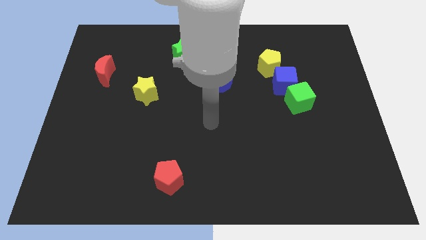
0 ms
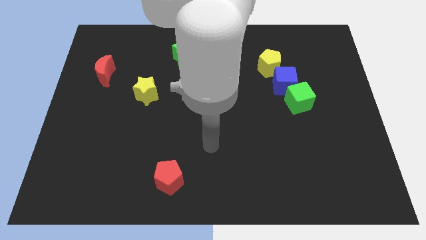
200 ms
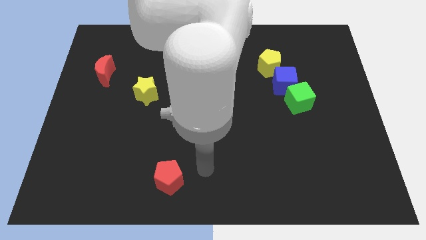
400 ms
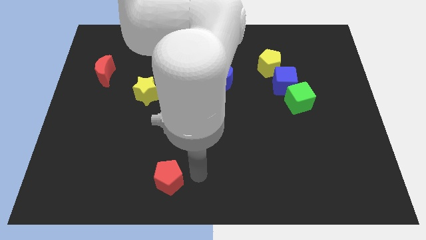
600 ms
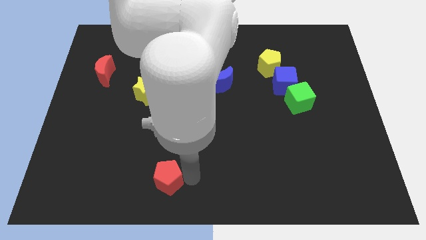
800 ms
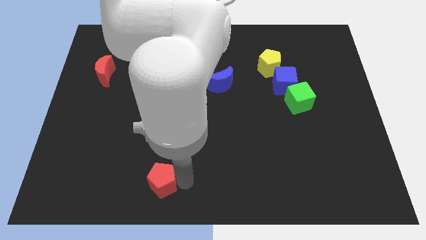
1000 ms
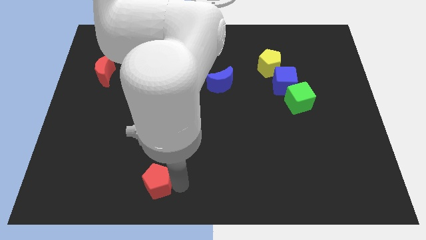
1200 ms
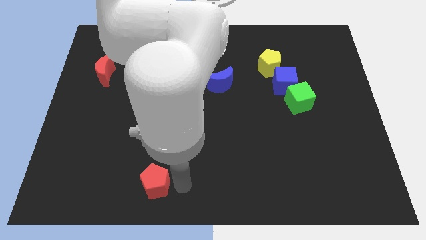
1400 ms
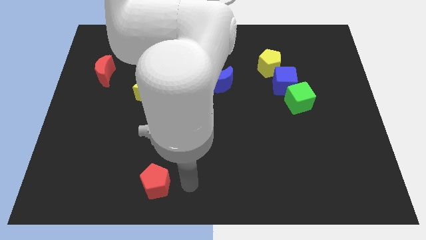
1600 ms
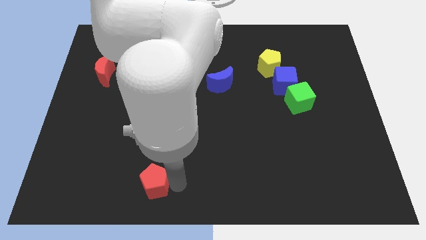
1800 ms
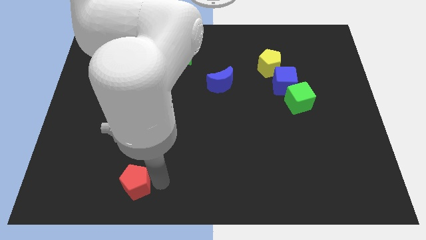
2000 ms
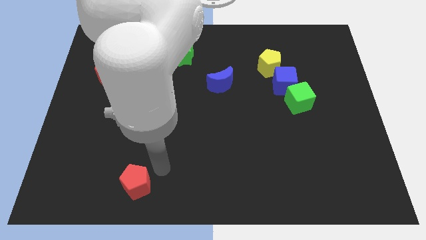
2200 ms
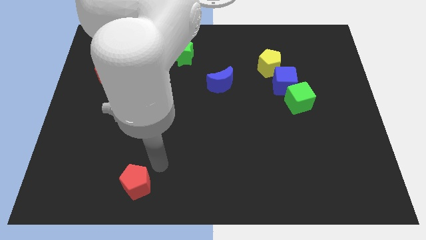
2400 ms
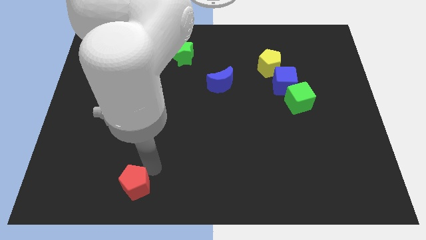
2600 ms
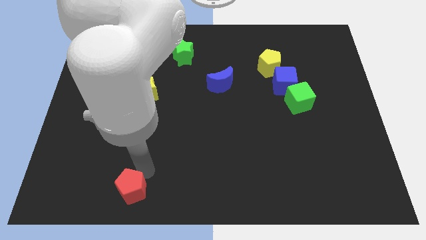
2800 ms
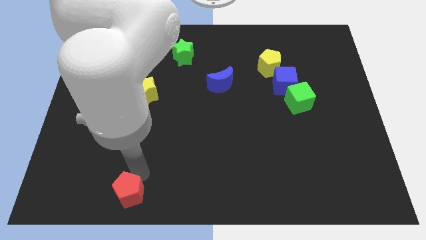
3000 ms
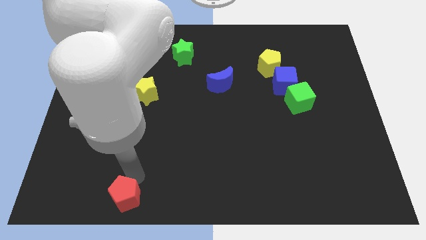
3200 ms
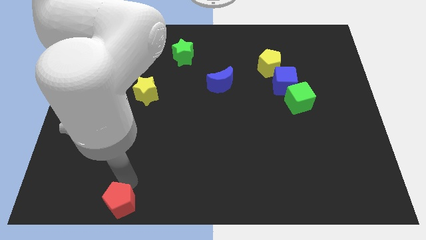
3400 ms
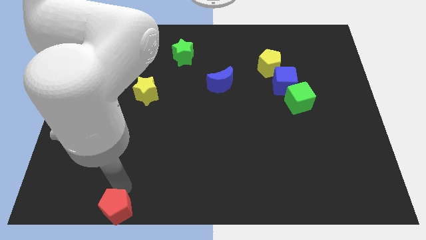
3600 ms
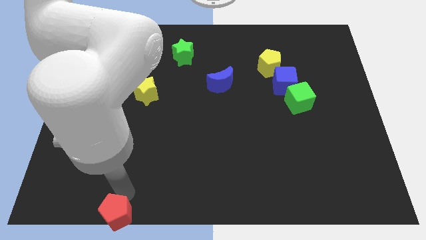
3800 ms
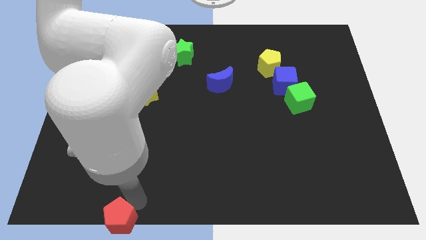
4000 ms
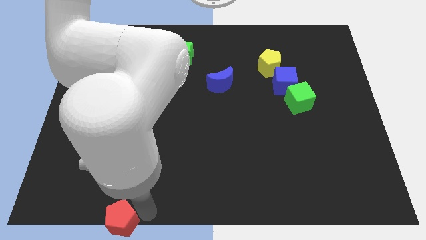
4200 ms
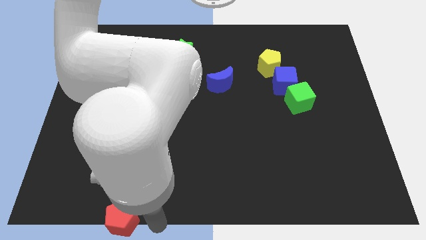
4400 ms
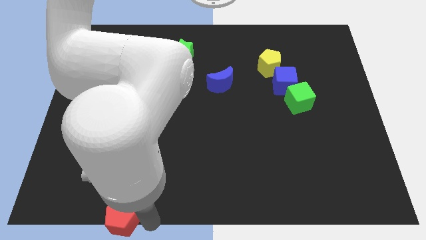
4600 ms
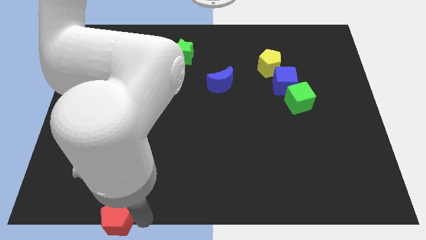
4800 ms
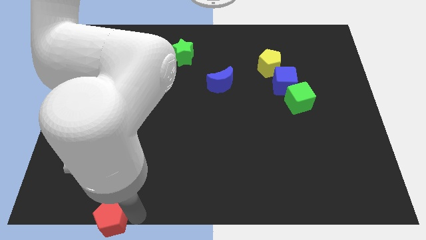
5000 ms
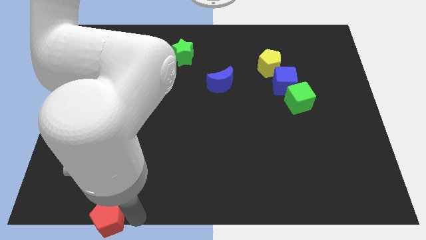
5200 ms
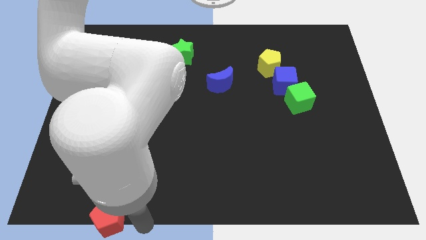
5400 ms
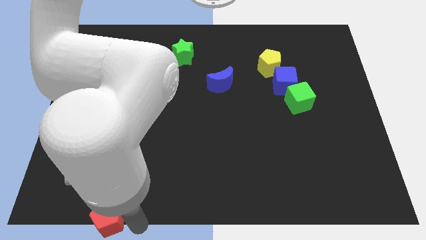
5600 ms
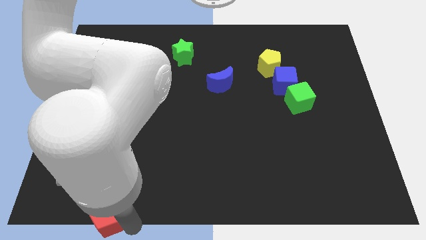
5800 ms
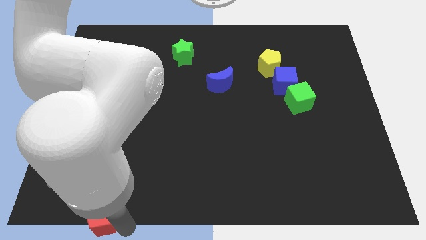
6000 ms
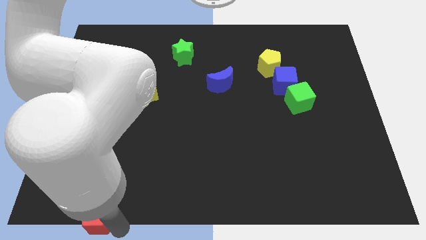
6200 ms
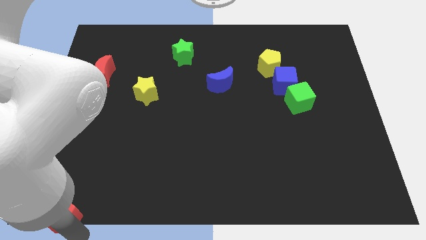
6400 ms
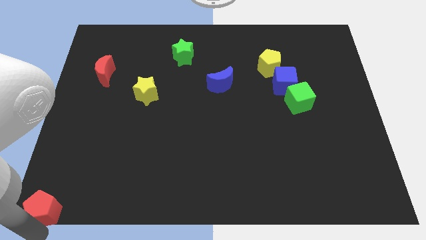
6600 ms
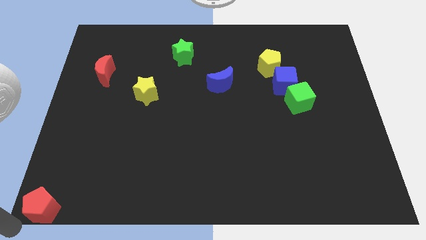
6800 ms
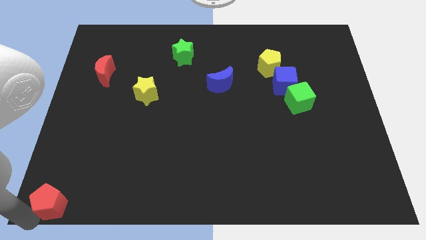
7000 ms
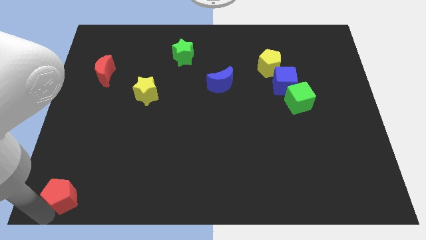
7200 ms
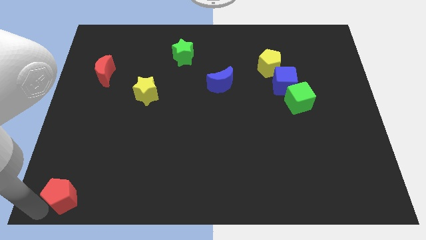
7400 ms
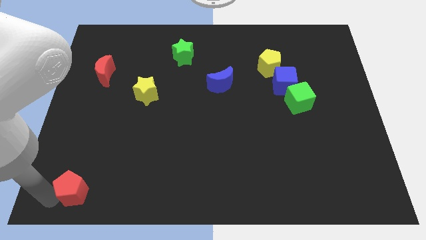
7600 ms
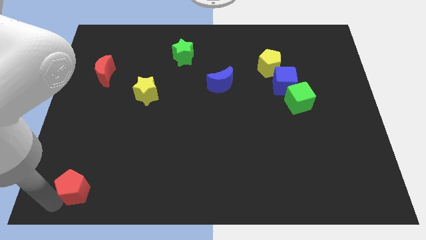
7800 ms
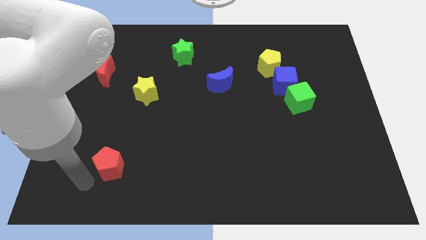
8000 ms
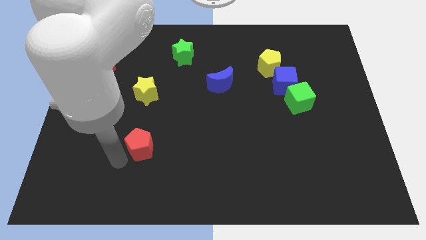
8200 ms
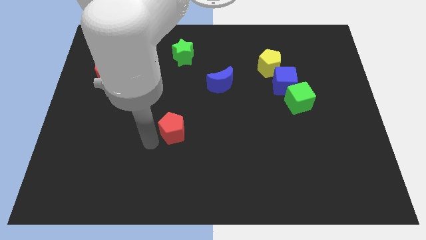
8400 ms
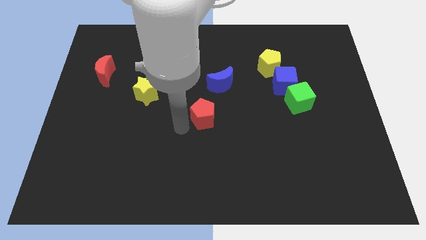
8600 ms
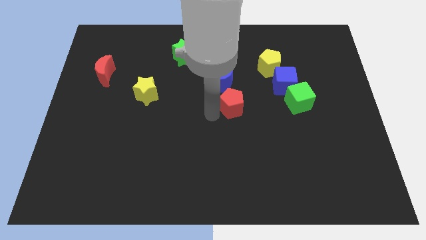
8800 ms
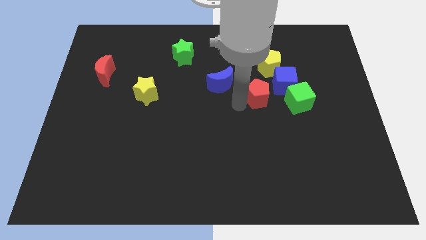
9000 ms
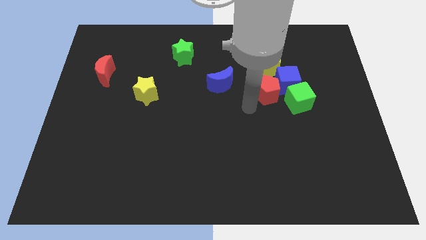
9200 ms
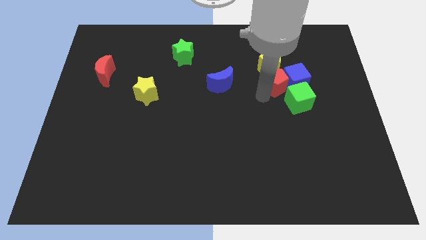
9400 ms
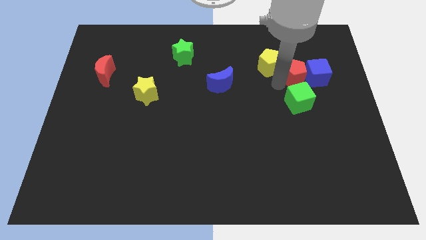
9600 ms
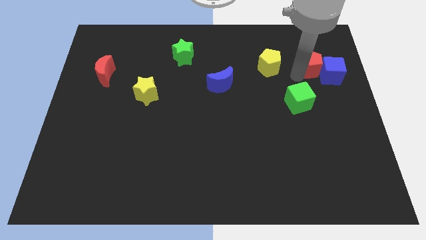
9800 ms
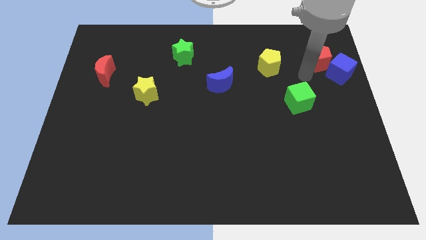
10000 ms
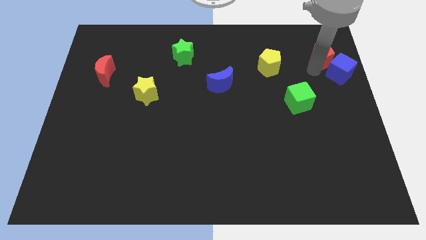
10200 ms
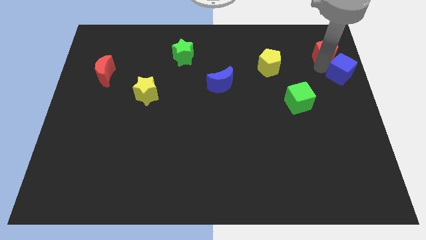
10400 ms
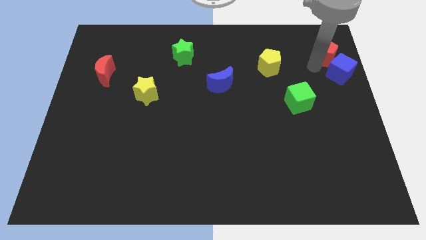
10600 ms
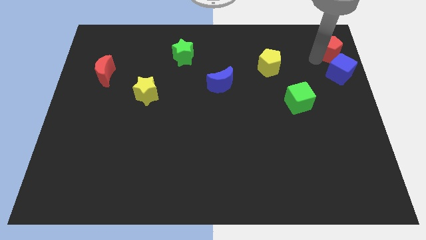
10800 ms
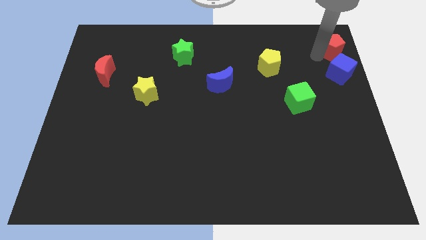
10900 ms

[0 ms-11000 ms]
put the red pentagon to the top right
